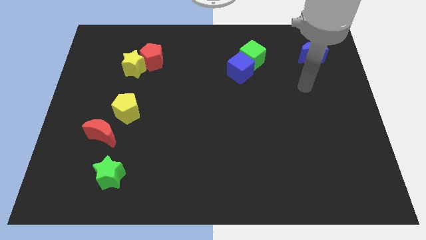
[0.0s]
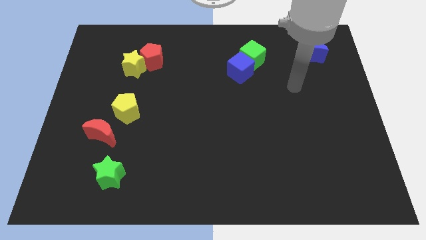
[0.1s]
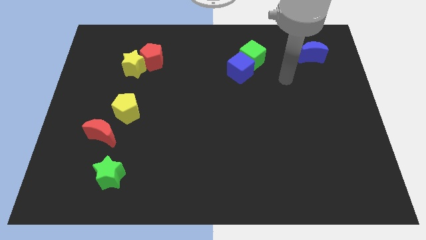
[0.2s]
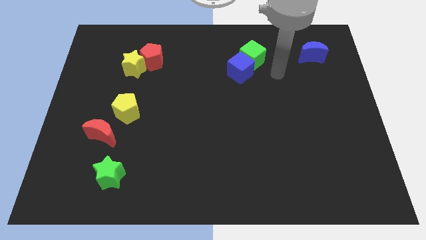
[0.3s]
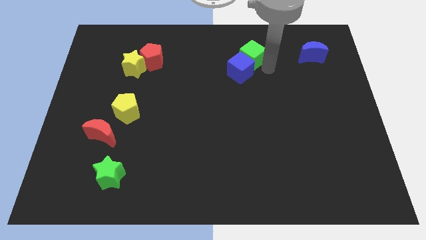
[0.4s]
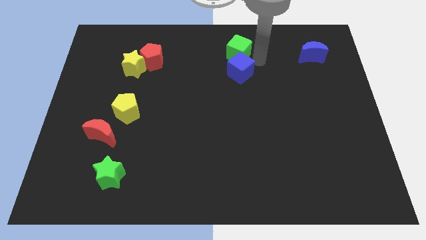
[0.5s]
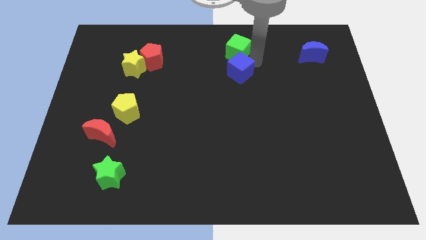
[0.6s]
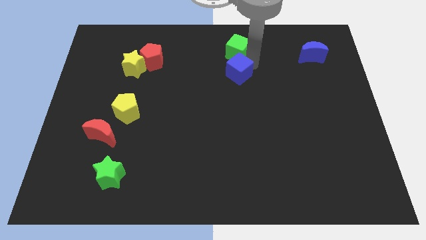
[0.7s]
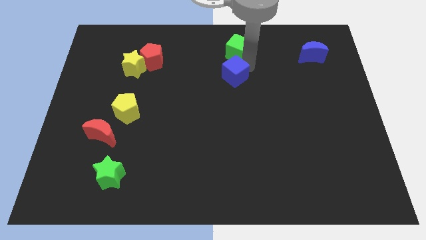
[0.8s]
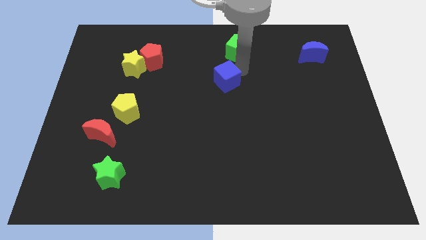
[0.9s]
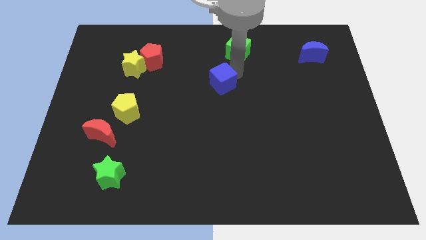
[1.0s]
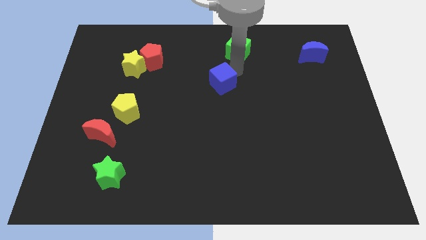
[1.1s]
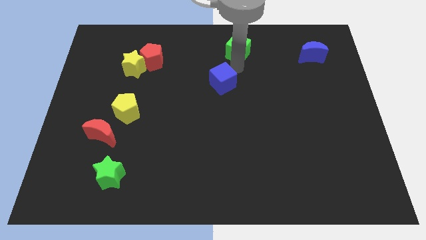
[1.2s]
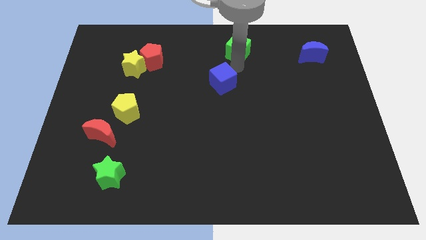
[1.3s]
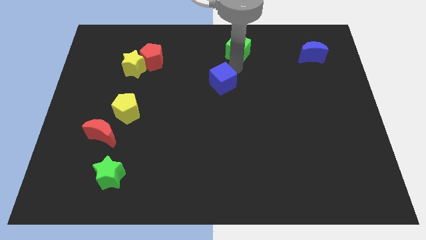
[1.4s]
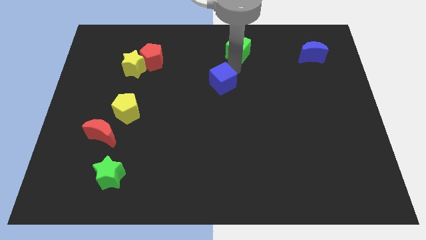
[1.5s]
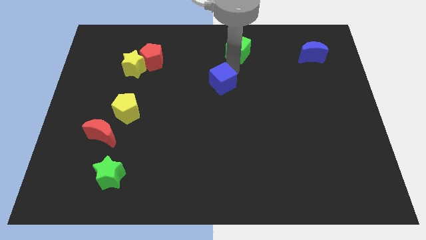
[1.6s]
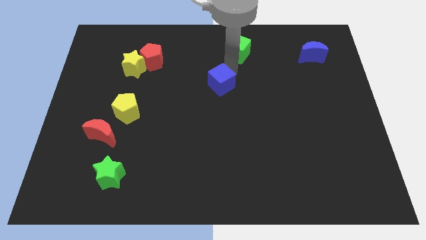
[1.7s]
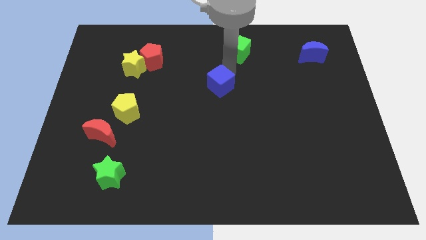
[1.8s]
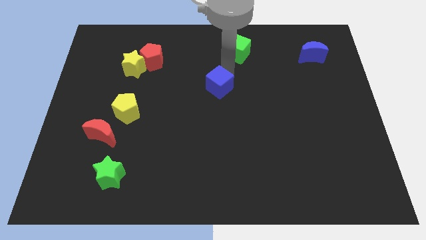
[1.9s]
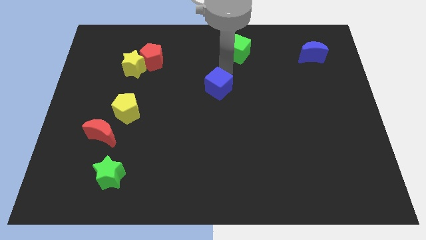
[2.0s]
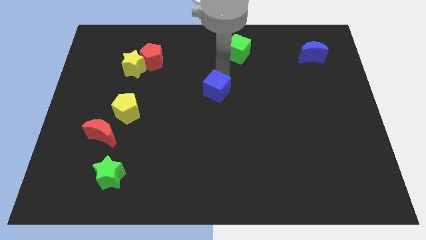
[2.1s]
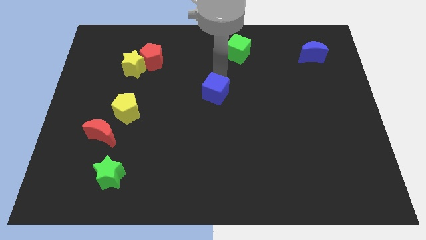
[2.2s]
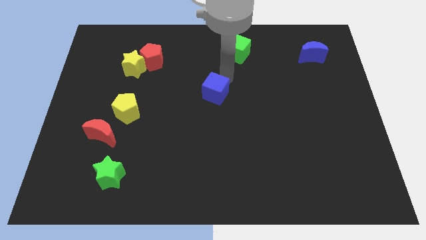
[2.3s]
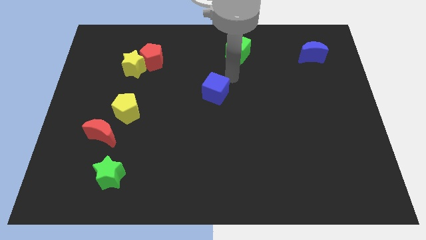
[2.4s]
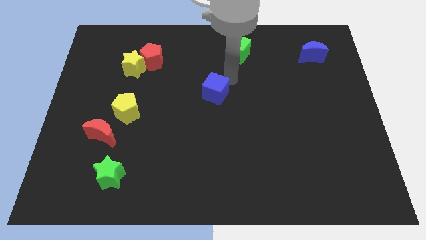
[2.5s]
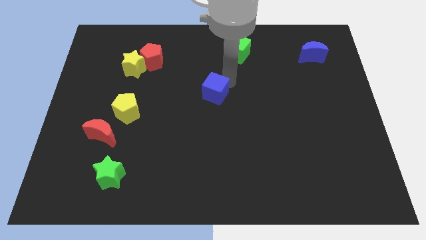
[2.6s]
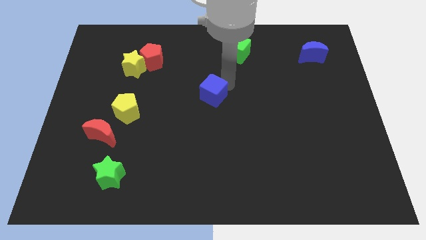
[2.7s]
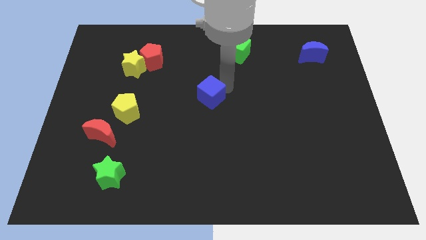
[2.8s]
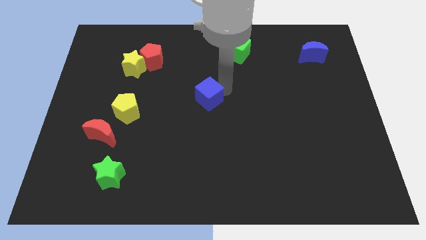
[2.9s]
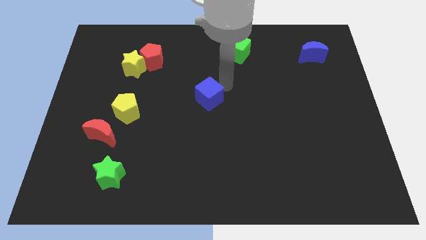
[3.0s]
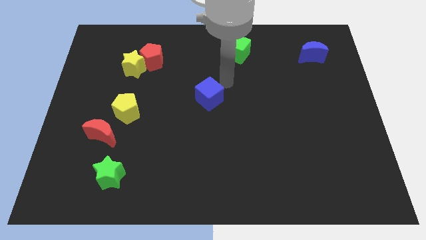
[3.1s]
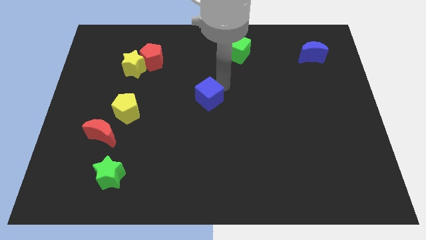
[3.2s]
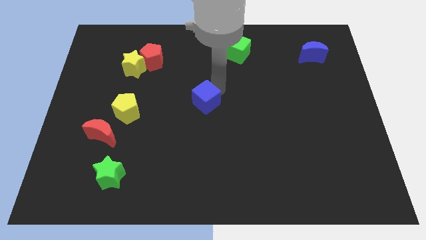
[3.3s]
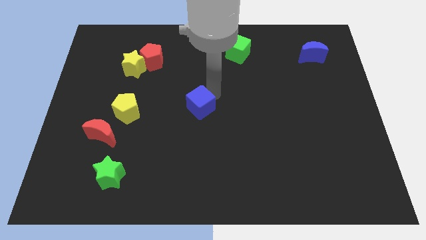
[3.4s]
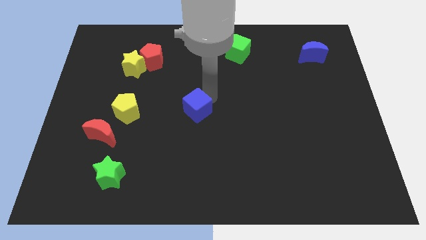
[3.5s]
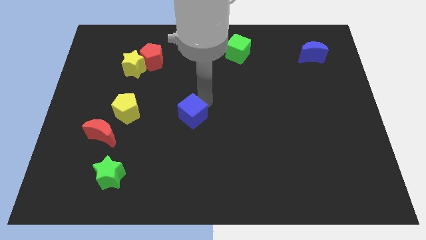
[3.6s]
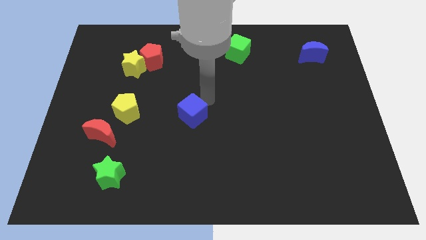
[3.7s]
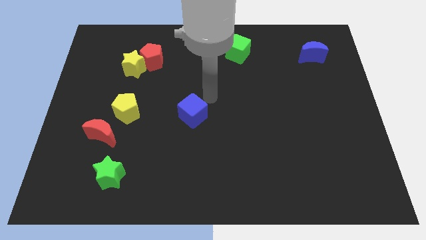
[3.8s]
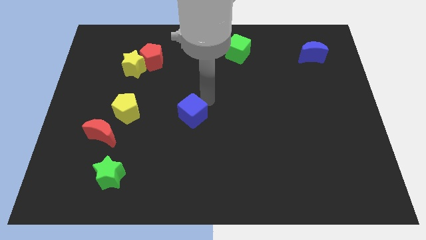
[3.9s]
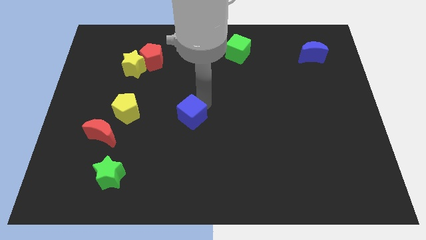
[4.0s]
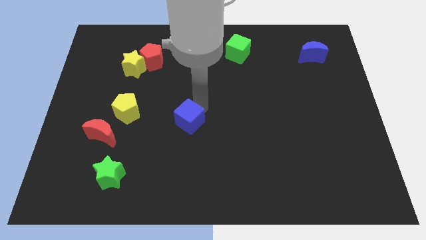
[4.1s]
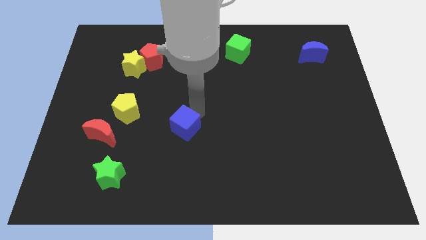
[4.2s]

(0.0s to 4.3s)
push the blue cube down and then left

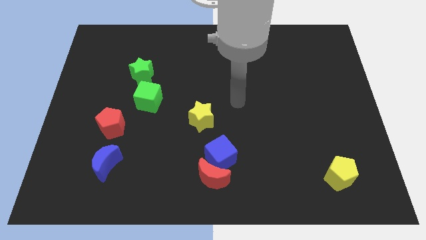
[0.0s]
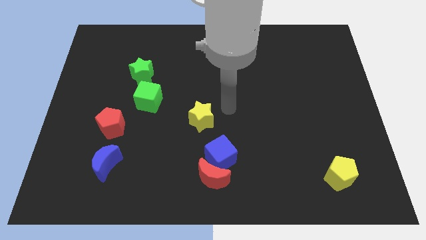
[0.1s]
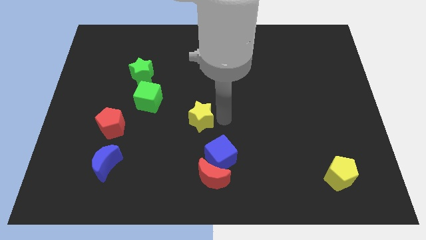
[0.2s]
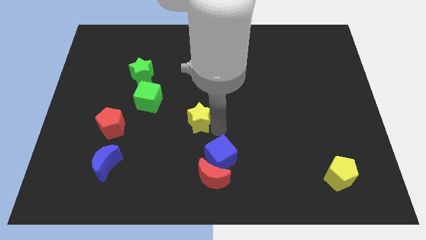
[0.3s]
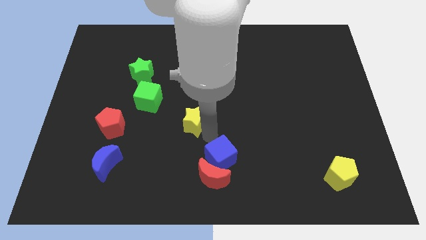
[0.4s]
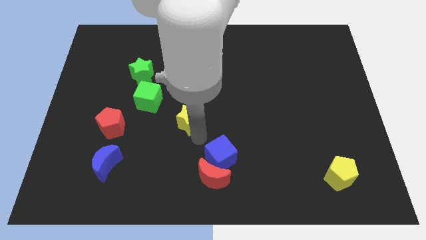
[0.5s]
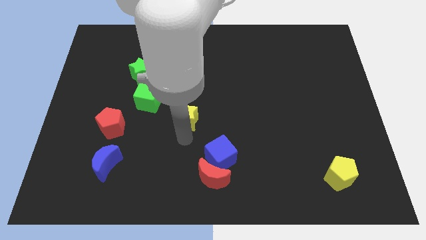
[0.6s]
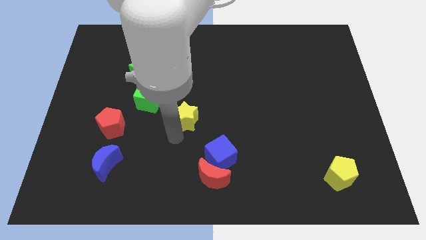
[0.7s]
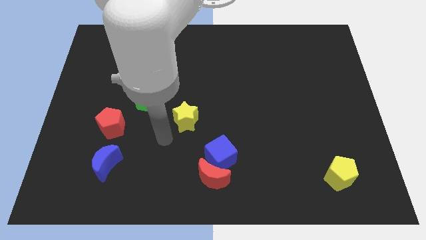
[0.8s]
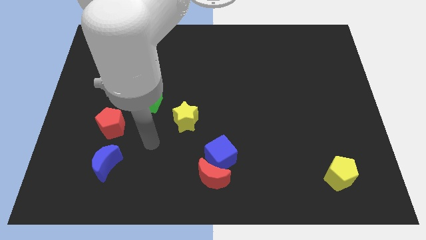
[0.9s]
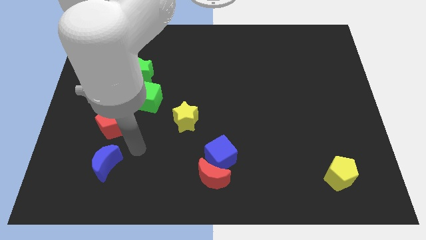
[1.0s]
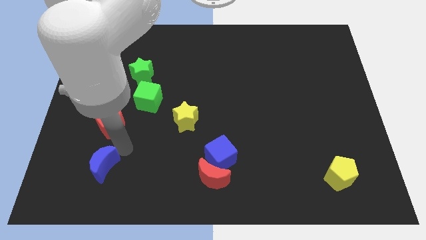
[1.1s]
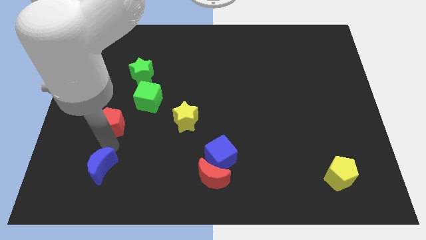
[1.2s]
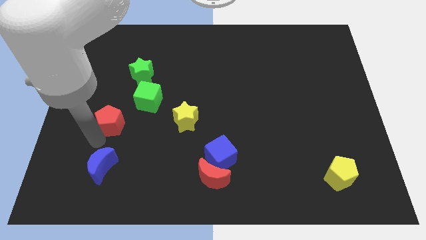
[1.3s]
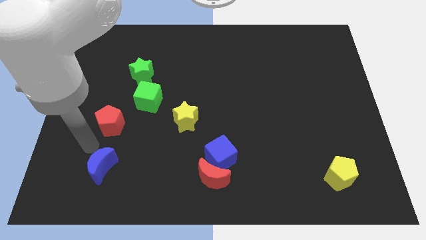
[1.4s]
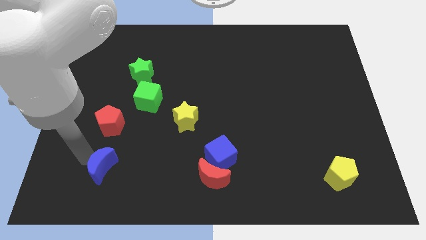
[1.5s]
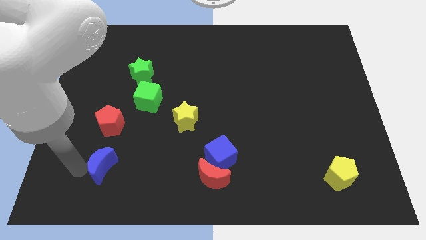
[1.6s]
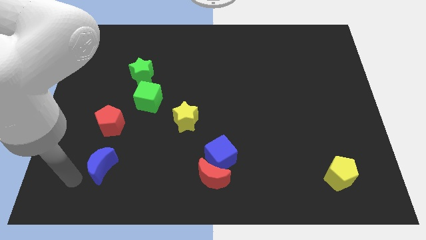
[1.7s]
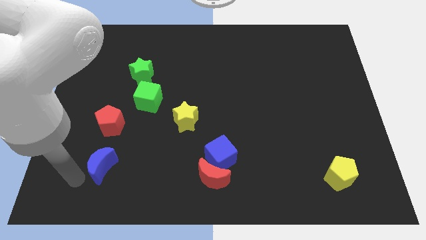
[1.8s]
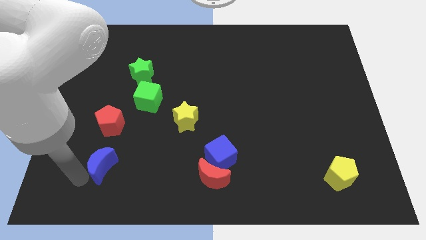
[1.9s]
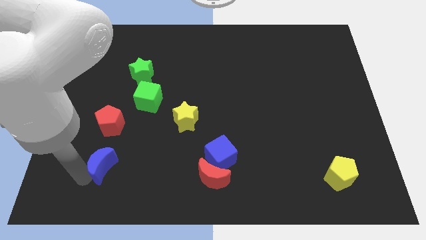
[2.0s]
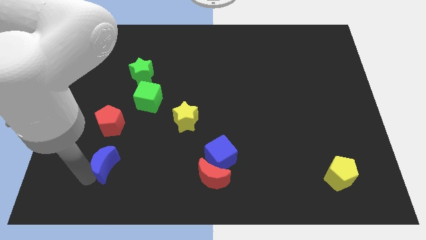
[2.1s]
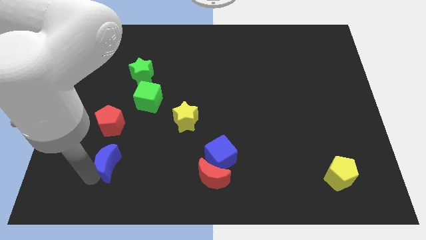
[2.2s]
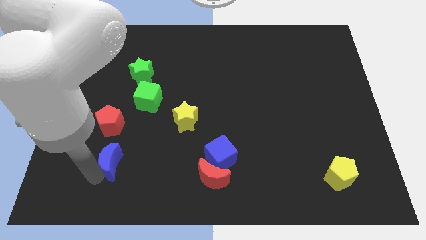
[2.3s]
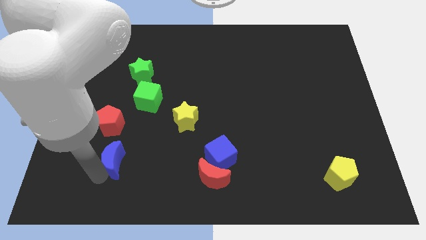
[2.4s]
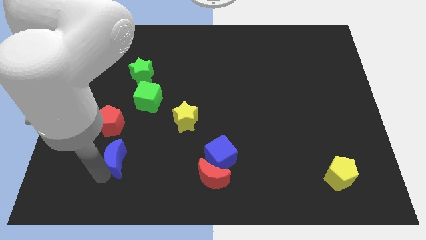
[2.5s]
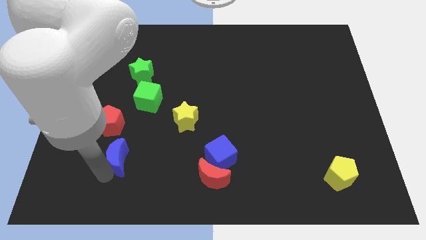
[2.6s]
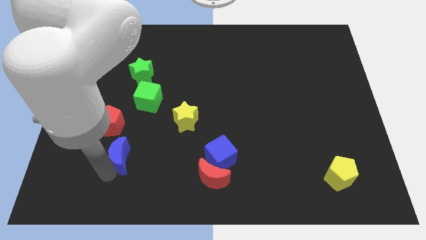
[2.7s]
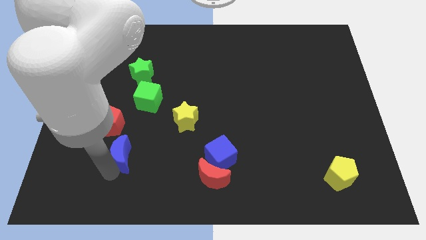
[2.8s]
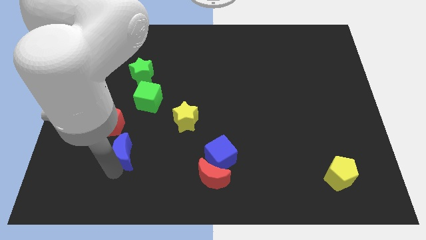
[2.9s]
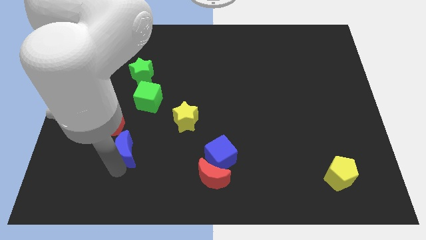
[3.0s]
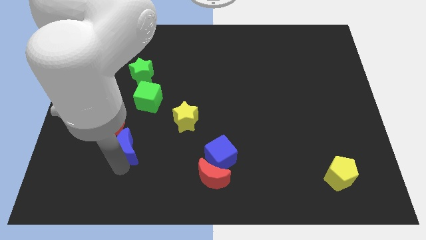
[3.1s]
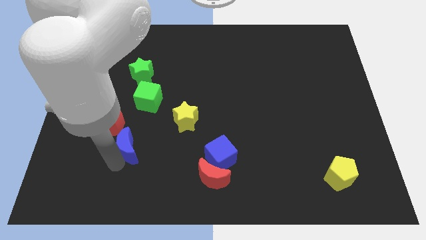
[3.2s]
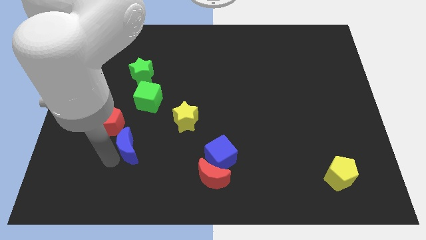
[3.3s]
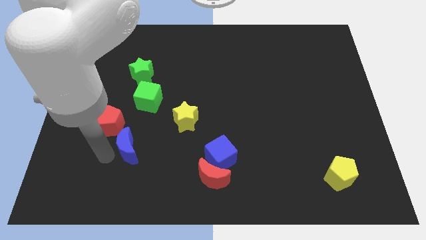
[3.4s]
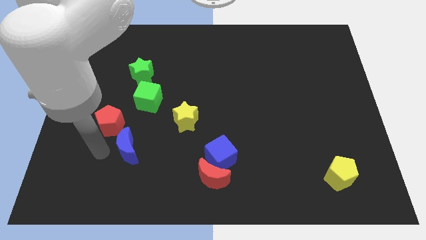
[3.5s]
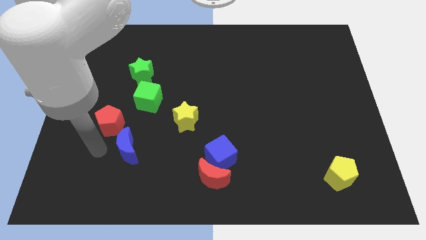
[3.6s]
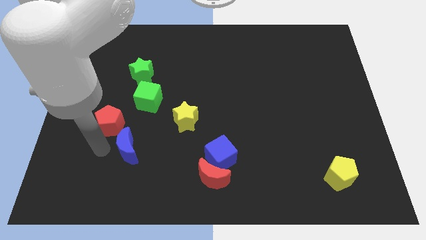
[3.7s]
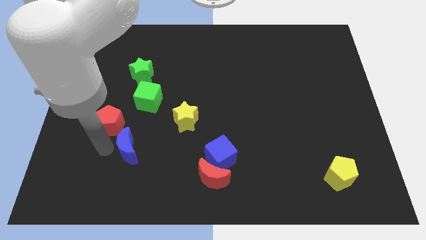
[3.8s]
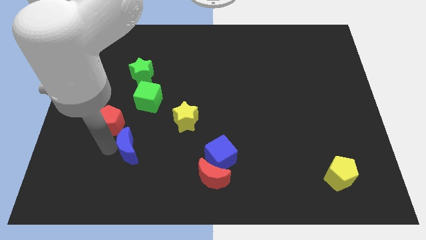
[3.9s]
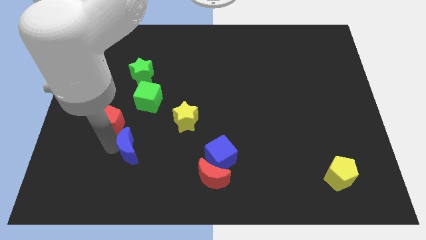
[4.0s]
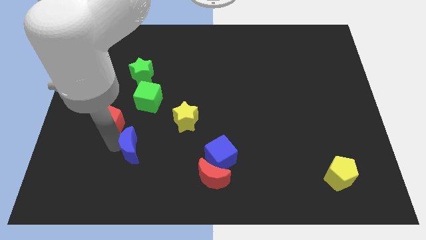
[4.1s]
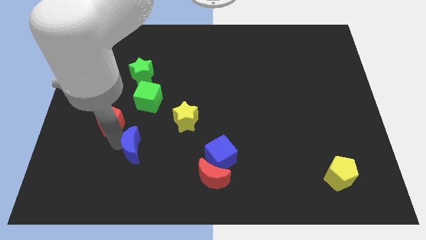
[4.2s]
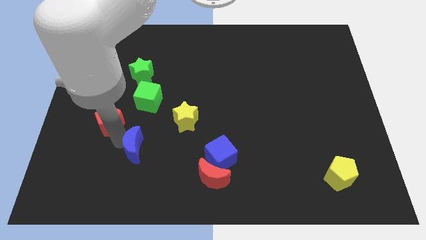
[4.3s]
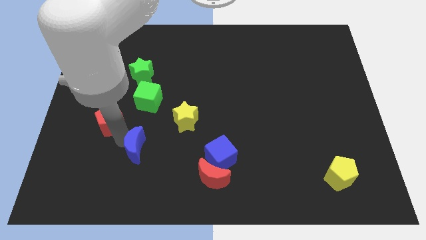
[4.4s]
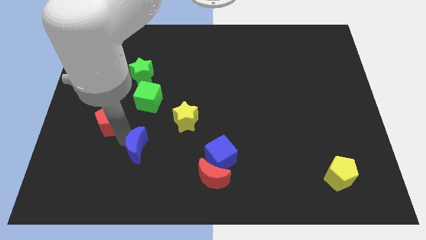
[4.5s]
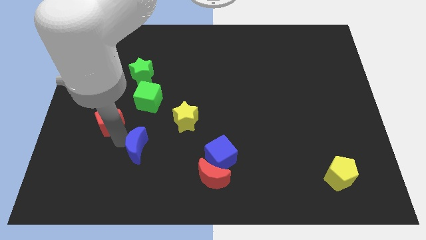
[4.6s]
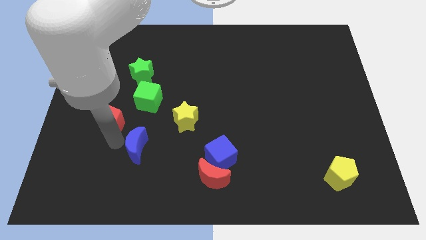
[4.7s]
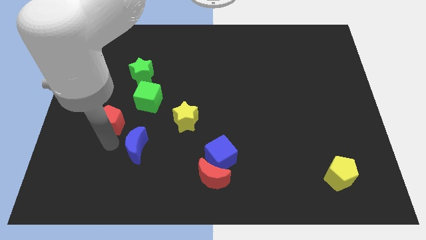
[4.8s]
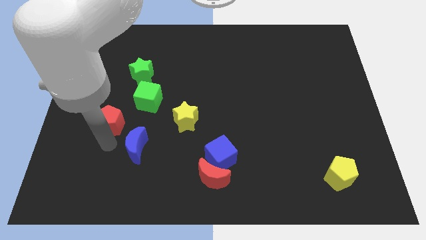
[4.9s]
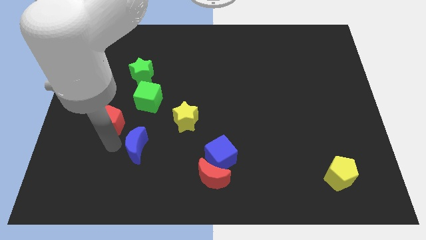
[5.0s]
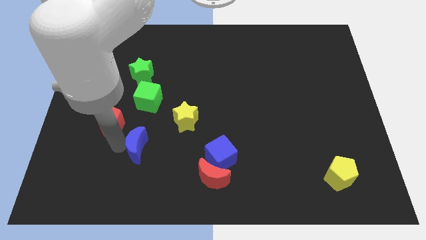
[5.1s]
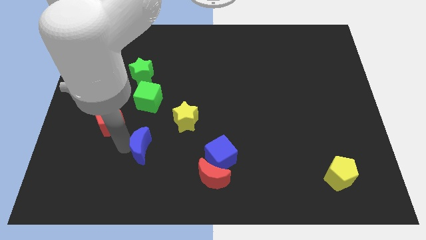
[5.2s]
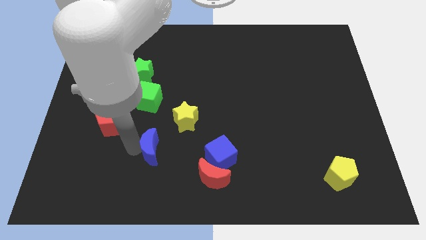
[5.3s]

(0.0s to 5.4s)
slightly push the blue moon right
